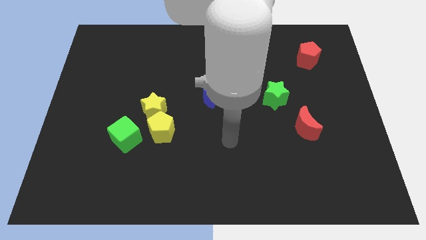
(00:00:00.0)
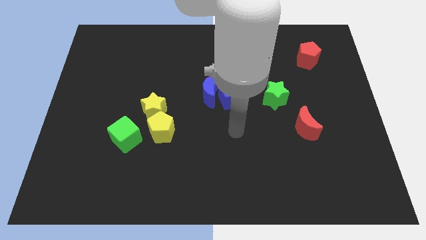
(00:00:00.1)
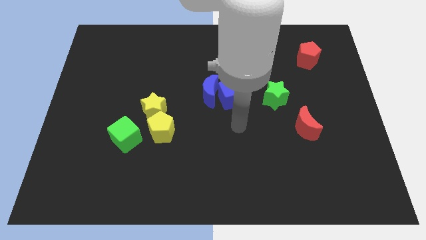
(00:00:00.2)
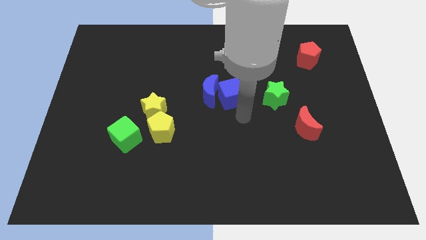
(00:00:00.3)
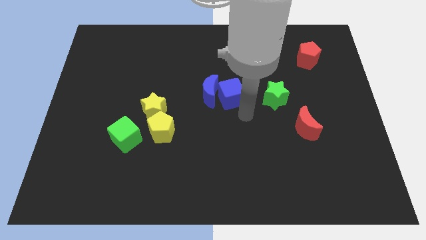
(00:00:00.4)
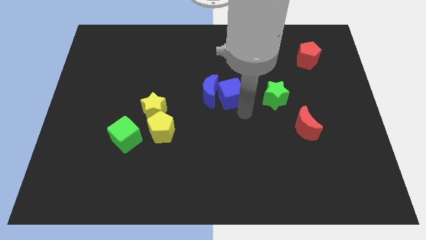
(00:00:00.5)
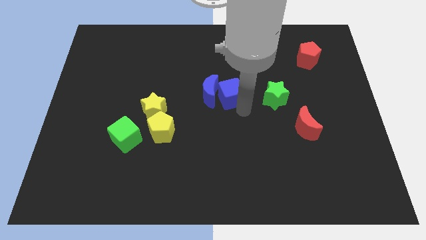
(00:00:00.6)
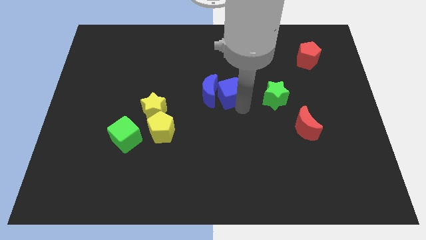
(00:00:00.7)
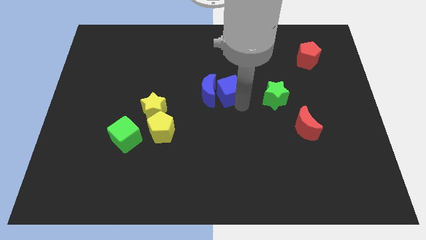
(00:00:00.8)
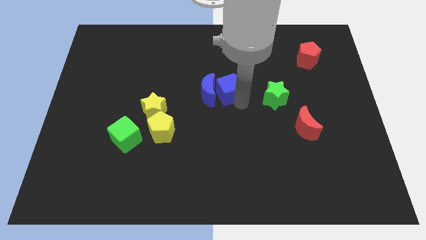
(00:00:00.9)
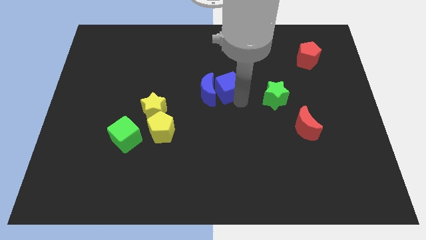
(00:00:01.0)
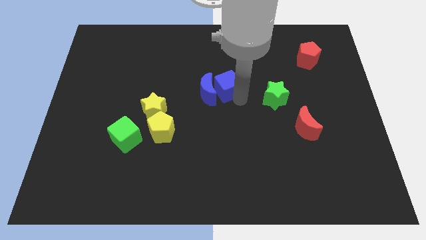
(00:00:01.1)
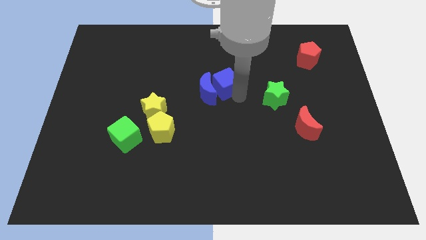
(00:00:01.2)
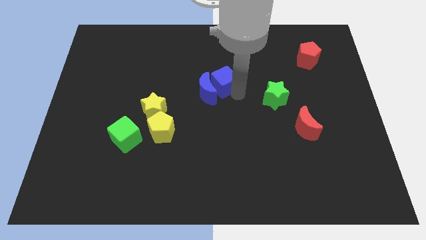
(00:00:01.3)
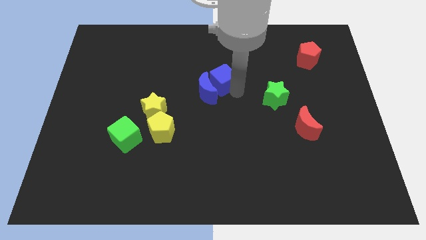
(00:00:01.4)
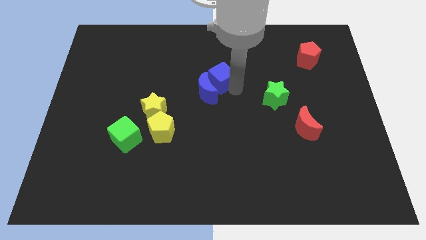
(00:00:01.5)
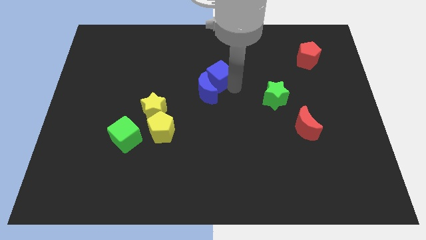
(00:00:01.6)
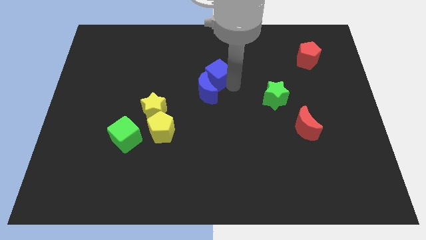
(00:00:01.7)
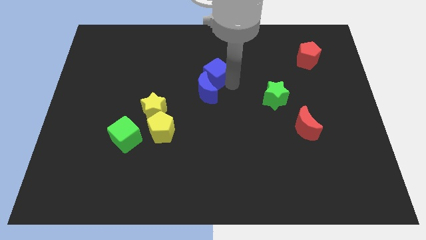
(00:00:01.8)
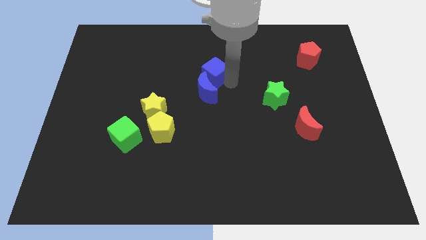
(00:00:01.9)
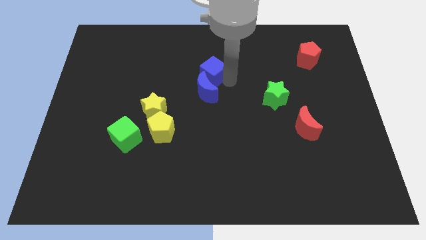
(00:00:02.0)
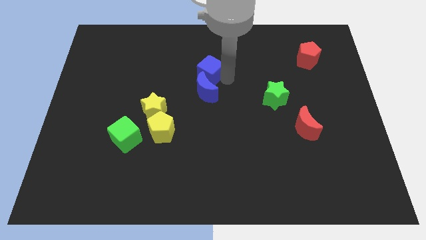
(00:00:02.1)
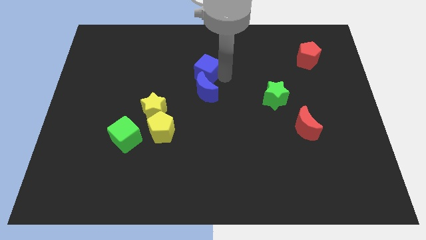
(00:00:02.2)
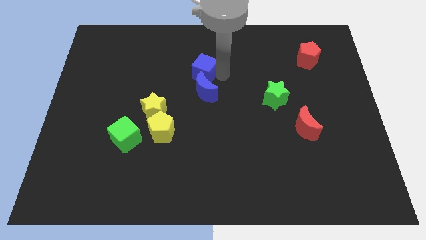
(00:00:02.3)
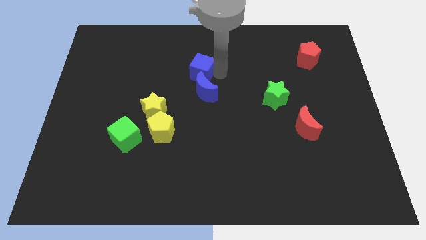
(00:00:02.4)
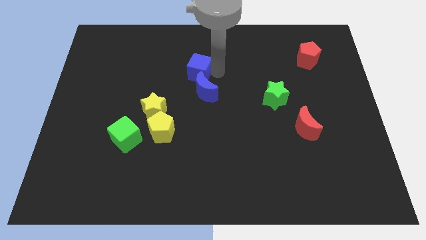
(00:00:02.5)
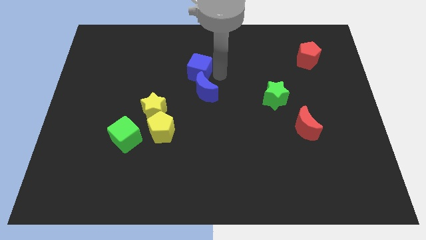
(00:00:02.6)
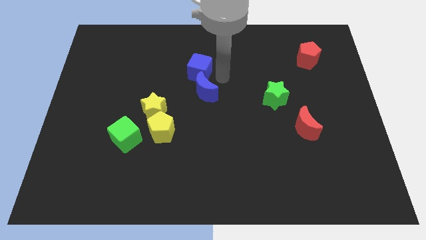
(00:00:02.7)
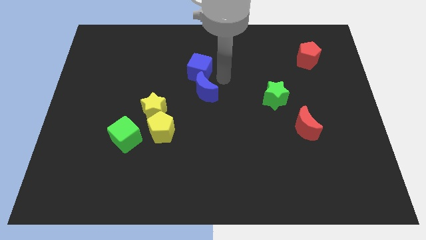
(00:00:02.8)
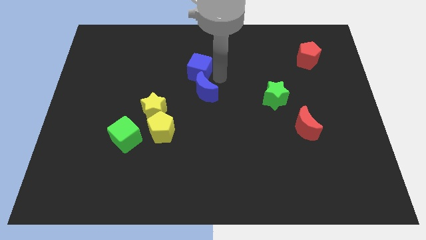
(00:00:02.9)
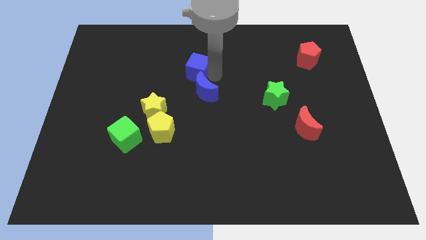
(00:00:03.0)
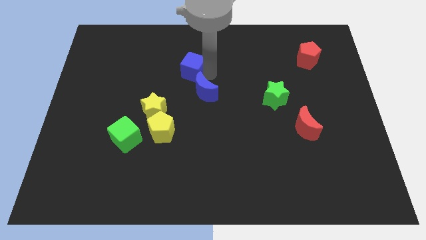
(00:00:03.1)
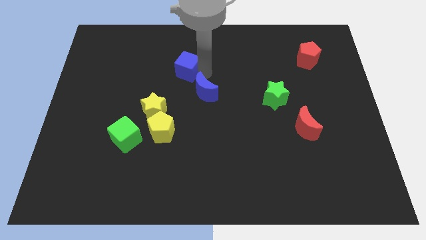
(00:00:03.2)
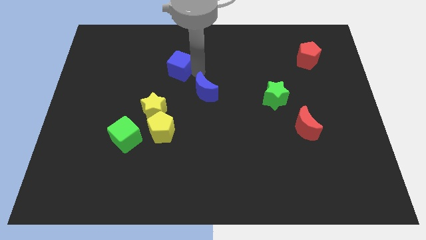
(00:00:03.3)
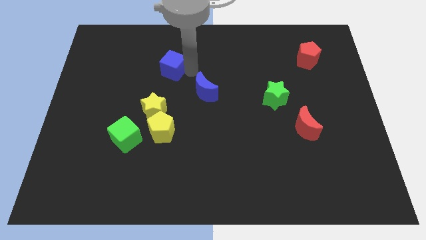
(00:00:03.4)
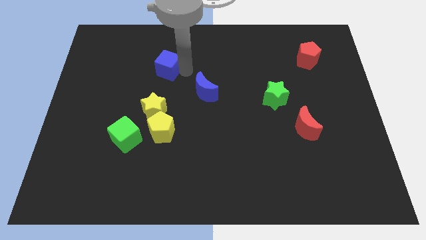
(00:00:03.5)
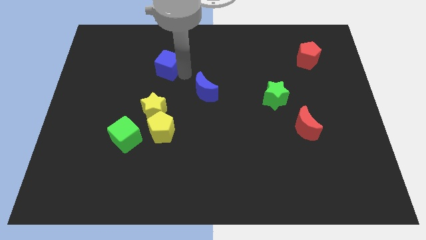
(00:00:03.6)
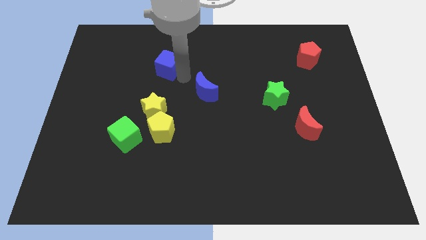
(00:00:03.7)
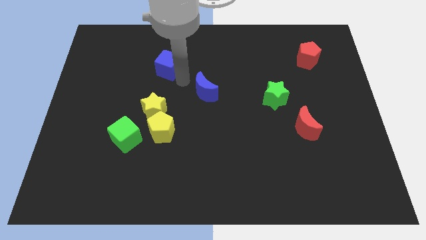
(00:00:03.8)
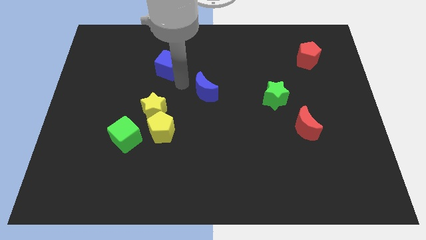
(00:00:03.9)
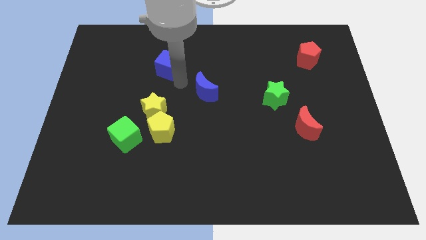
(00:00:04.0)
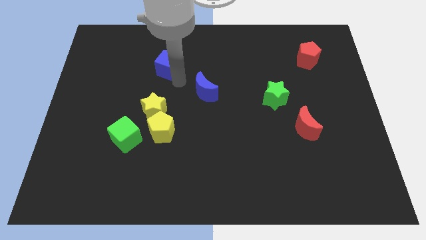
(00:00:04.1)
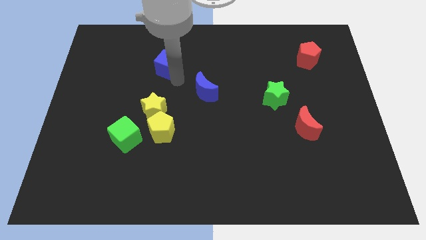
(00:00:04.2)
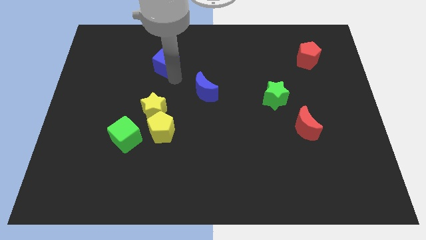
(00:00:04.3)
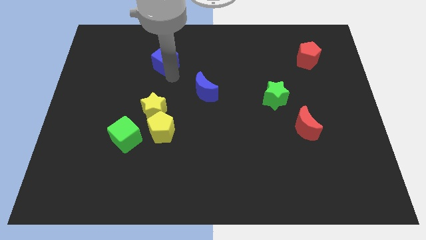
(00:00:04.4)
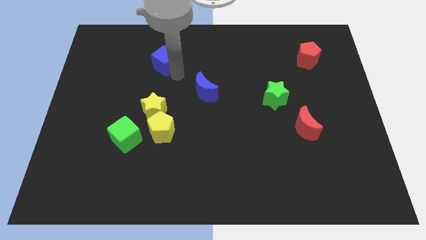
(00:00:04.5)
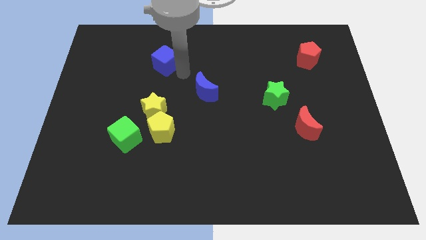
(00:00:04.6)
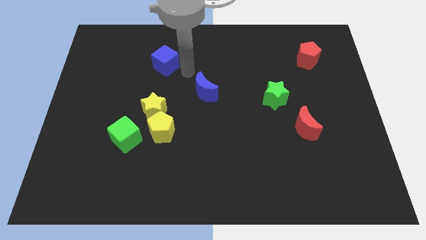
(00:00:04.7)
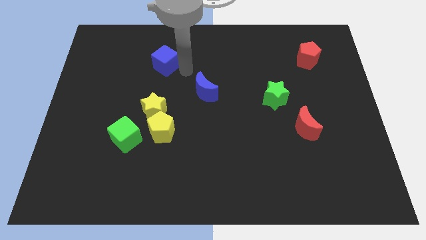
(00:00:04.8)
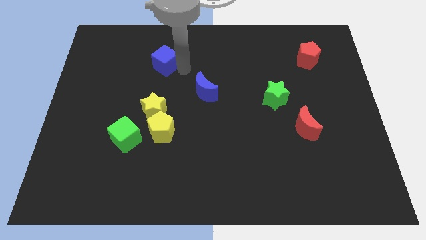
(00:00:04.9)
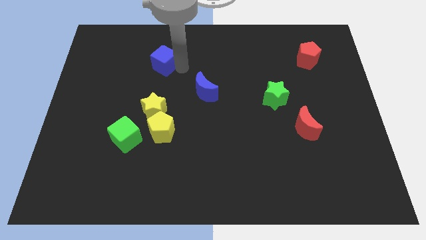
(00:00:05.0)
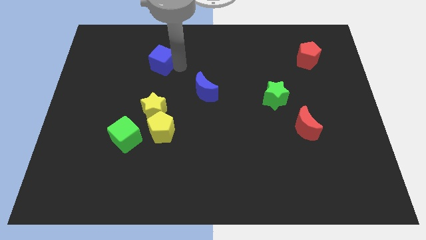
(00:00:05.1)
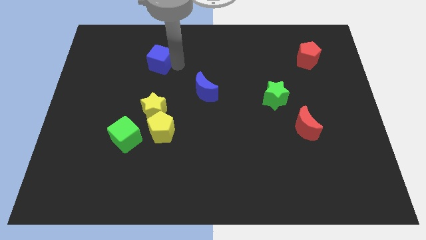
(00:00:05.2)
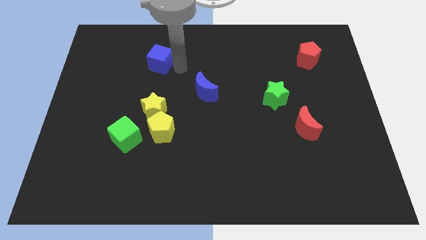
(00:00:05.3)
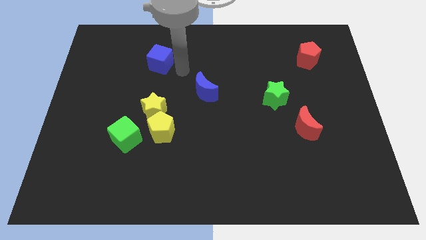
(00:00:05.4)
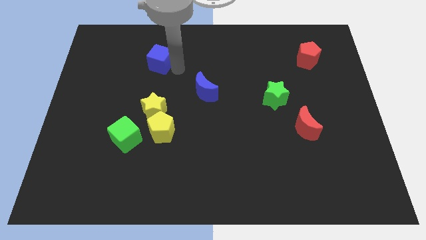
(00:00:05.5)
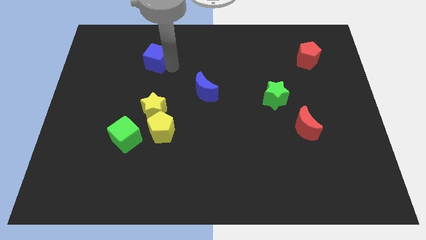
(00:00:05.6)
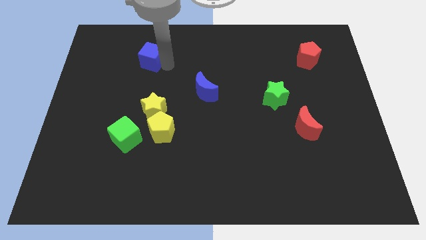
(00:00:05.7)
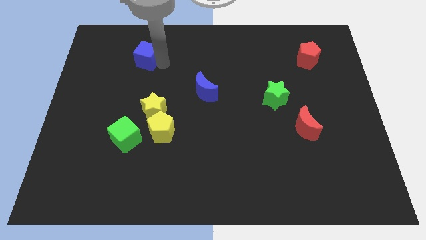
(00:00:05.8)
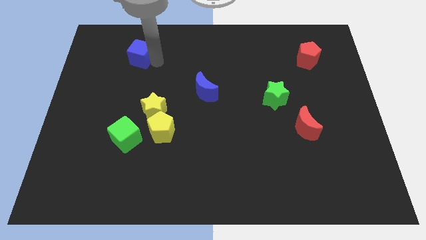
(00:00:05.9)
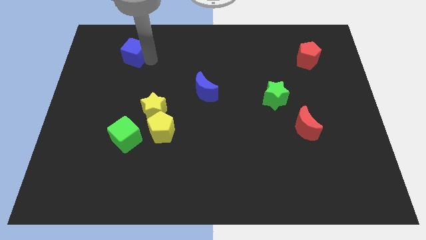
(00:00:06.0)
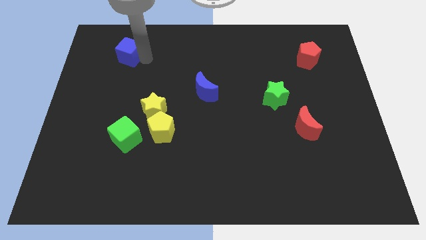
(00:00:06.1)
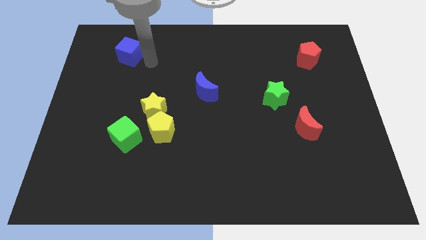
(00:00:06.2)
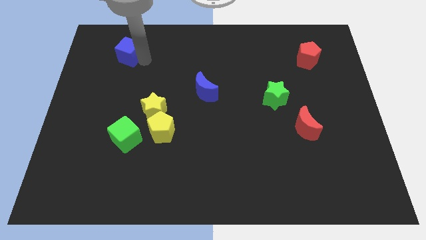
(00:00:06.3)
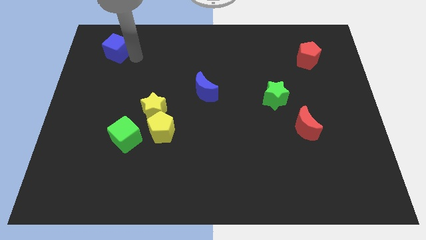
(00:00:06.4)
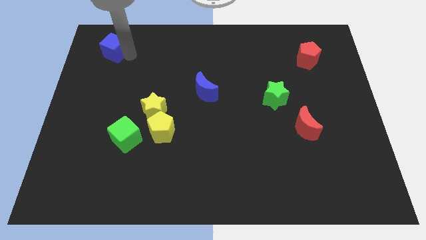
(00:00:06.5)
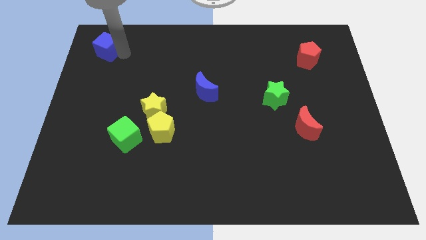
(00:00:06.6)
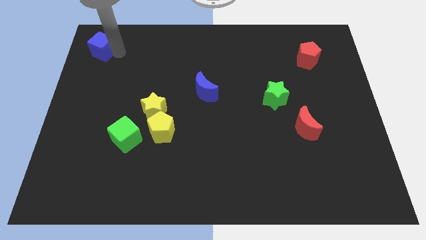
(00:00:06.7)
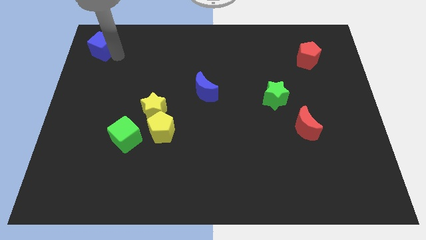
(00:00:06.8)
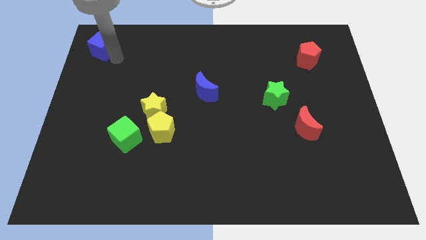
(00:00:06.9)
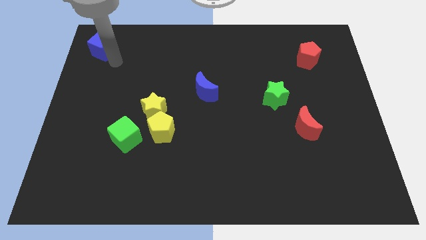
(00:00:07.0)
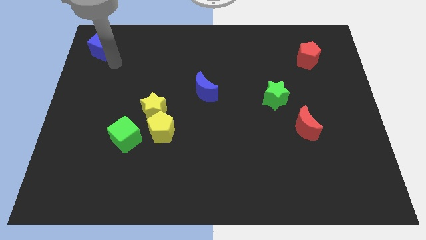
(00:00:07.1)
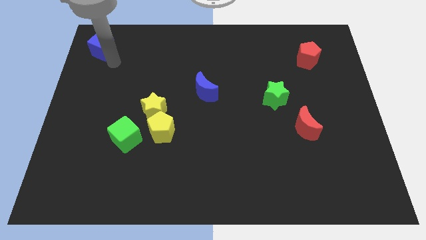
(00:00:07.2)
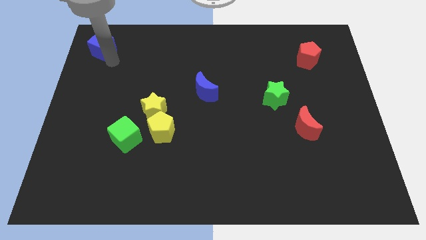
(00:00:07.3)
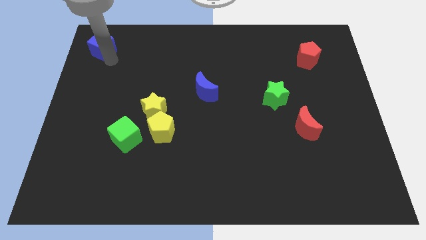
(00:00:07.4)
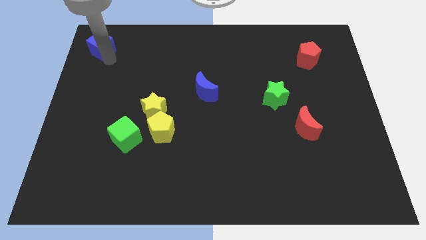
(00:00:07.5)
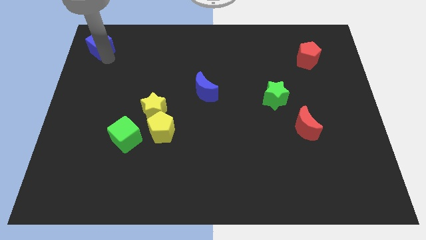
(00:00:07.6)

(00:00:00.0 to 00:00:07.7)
slide the blue cube to the top left of the board
